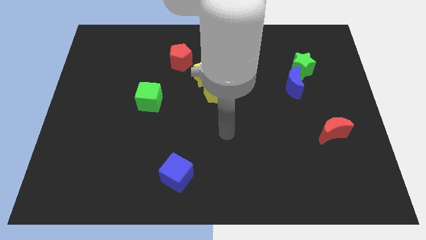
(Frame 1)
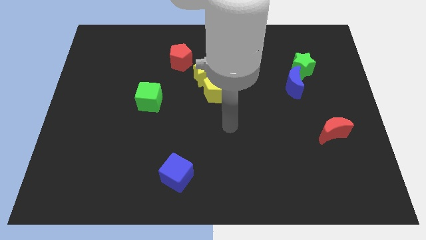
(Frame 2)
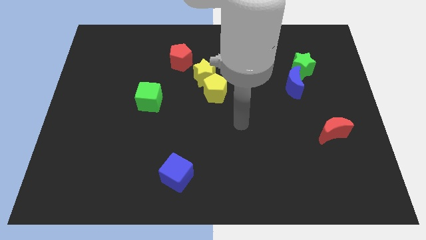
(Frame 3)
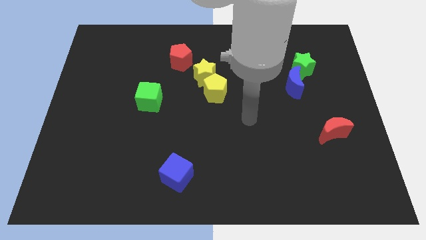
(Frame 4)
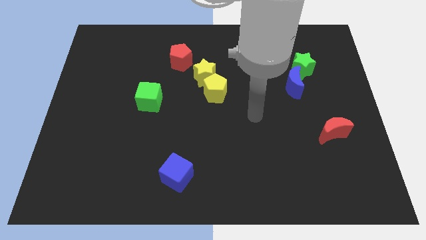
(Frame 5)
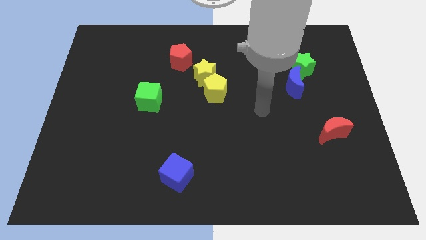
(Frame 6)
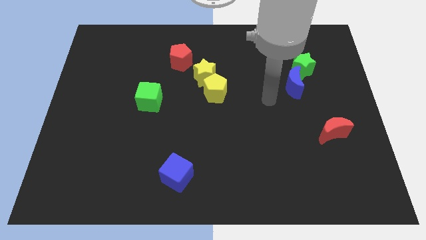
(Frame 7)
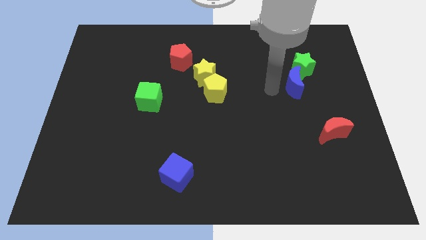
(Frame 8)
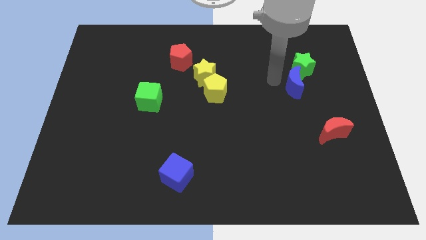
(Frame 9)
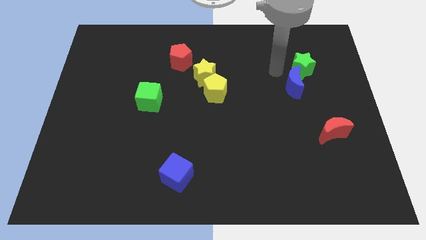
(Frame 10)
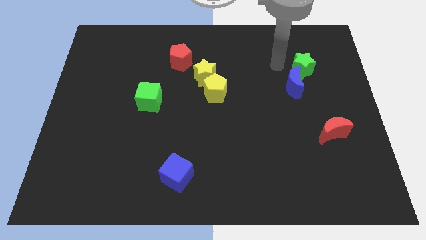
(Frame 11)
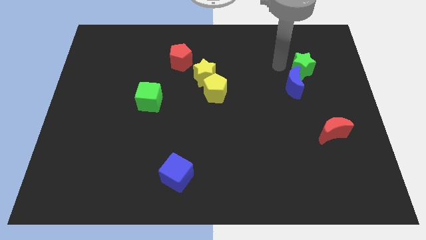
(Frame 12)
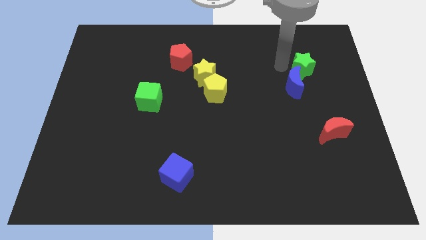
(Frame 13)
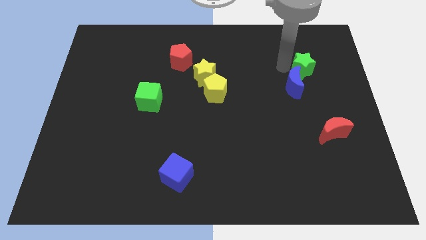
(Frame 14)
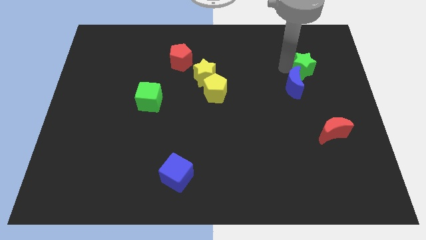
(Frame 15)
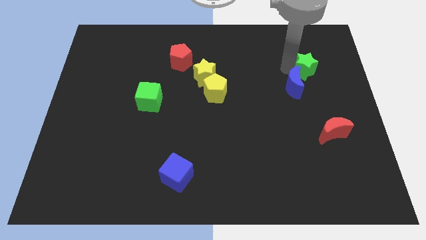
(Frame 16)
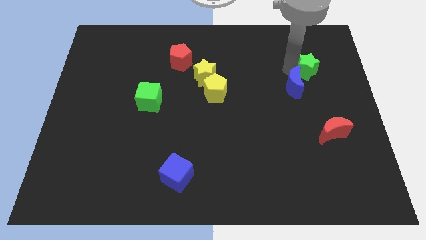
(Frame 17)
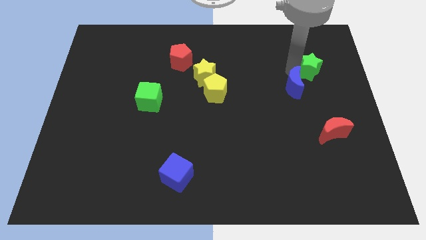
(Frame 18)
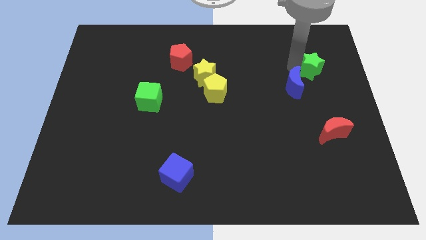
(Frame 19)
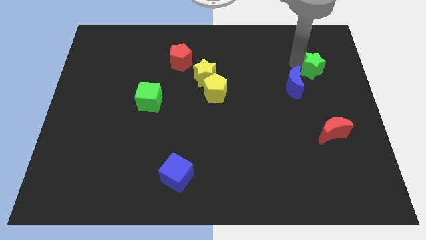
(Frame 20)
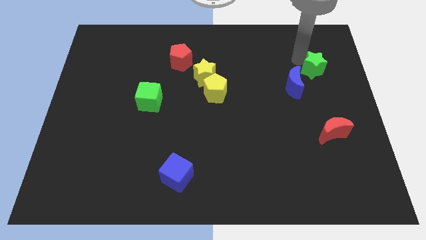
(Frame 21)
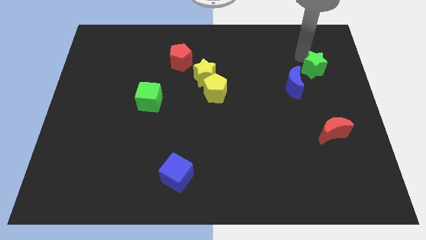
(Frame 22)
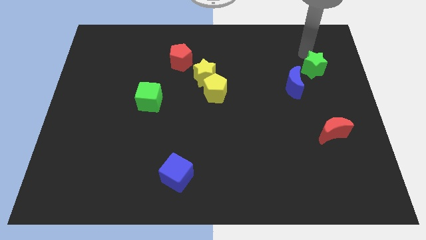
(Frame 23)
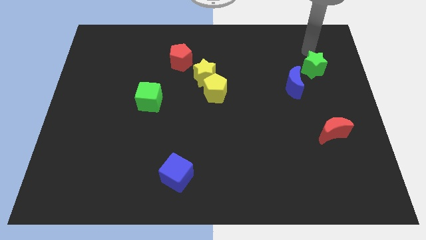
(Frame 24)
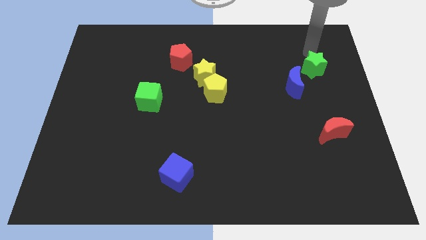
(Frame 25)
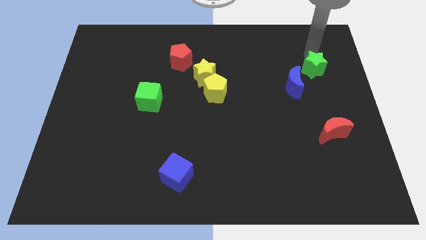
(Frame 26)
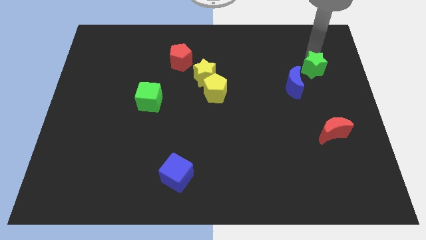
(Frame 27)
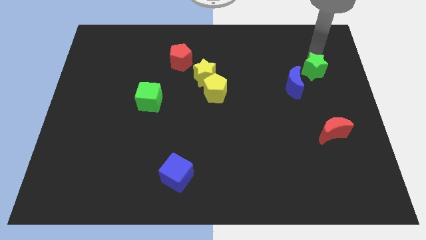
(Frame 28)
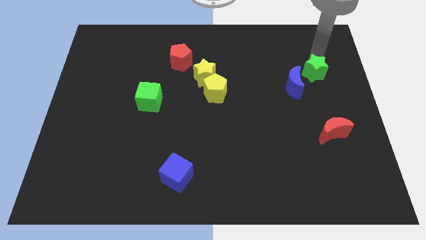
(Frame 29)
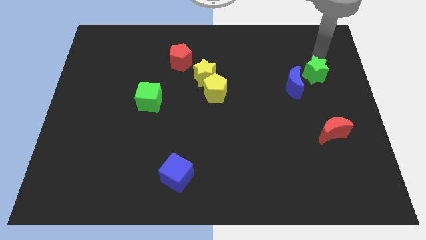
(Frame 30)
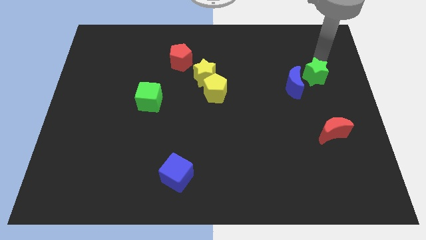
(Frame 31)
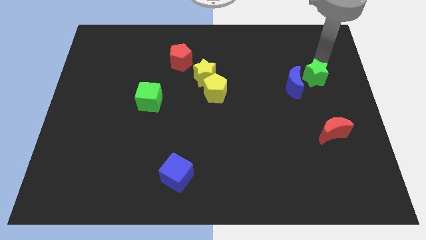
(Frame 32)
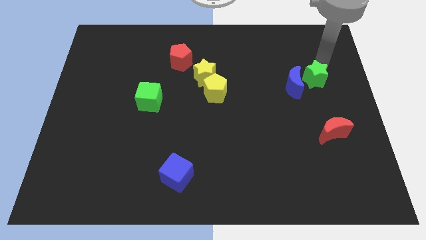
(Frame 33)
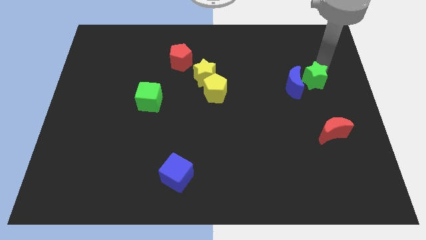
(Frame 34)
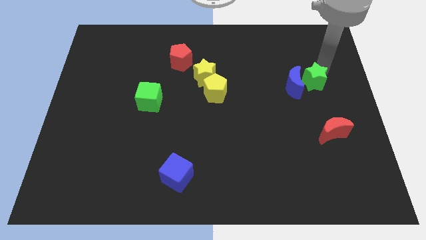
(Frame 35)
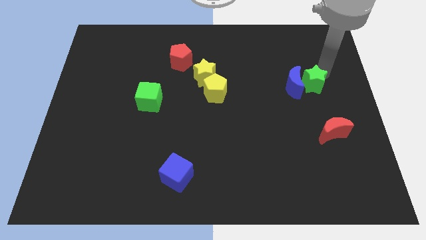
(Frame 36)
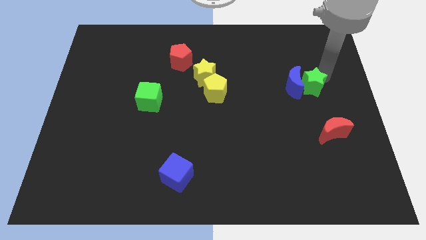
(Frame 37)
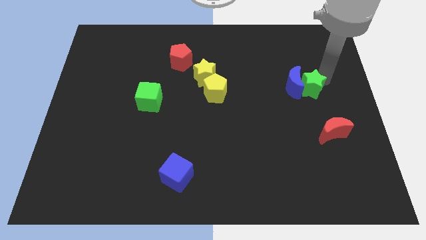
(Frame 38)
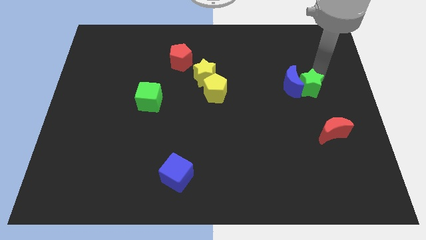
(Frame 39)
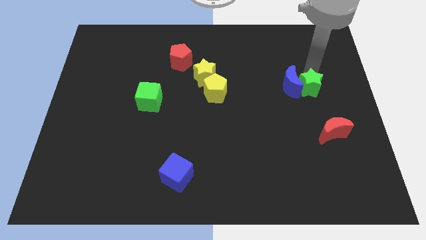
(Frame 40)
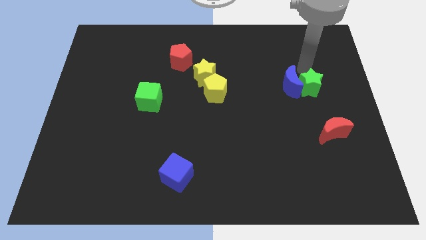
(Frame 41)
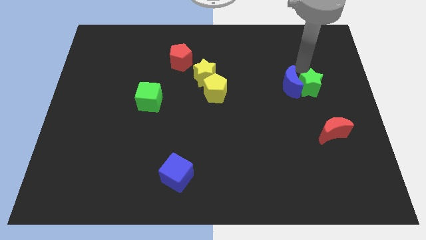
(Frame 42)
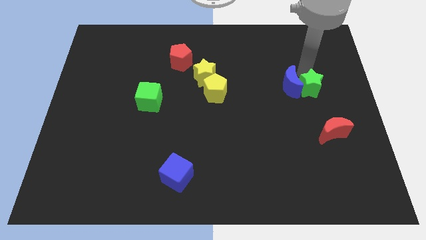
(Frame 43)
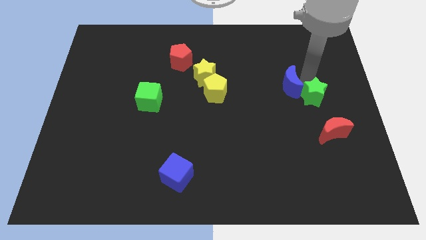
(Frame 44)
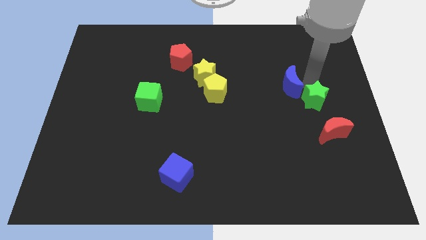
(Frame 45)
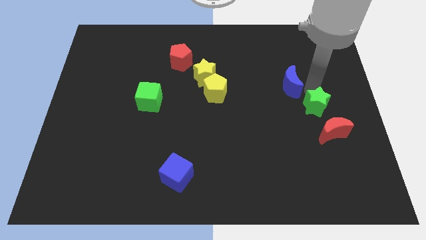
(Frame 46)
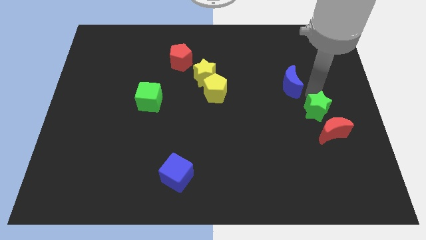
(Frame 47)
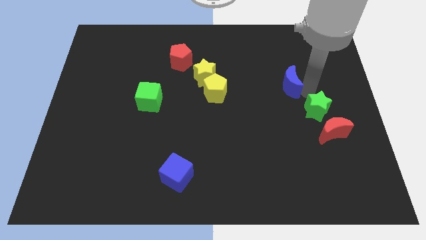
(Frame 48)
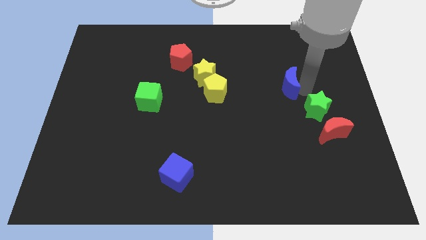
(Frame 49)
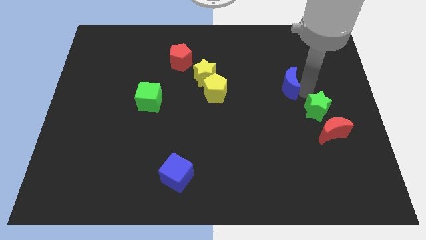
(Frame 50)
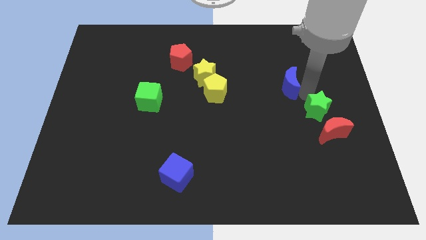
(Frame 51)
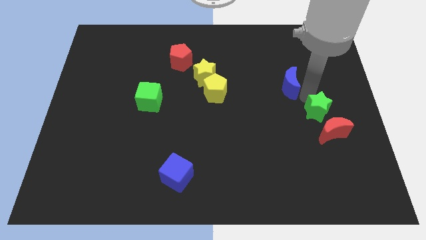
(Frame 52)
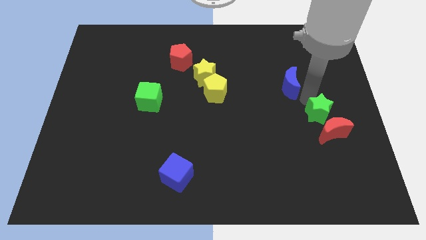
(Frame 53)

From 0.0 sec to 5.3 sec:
put the green star to the red moon

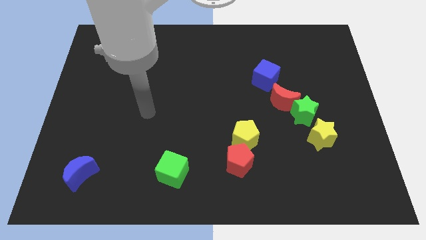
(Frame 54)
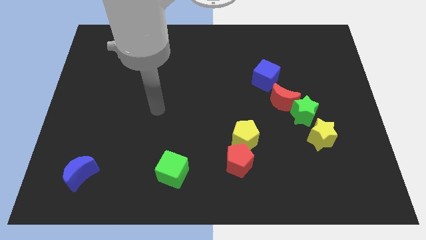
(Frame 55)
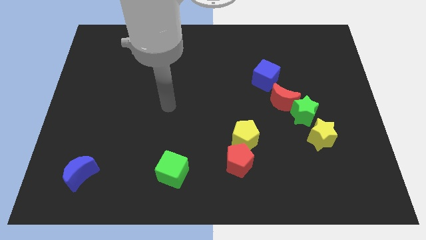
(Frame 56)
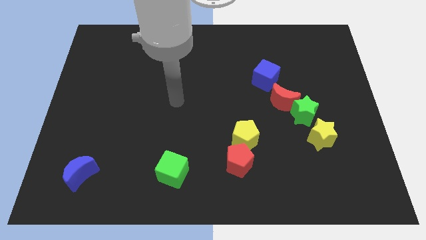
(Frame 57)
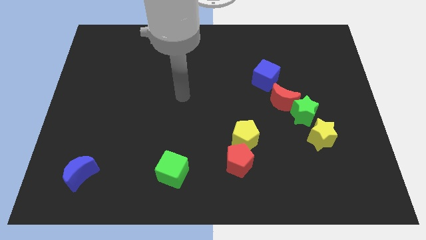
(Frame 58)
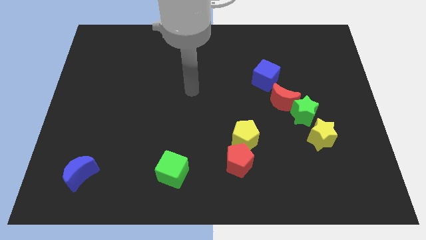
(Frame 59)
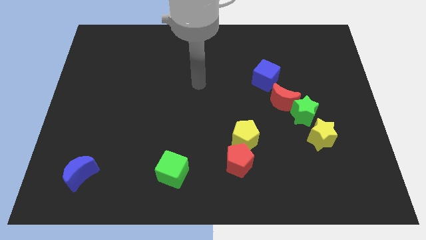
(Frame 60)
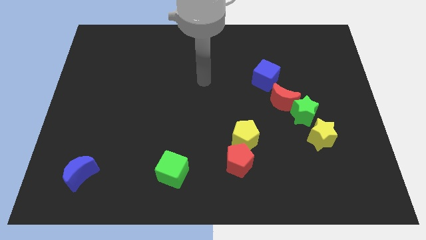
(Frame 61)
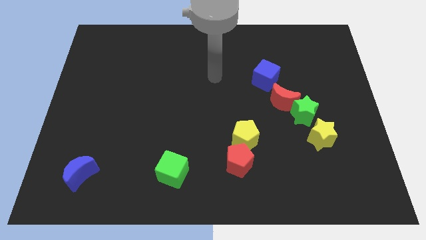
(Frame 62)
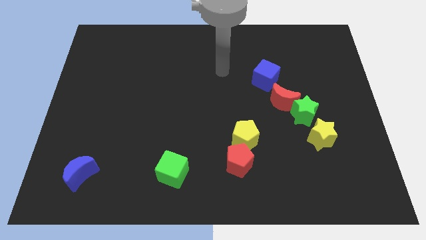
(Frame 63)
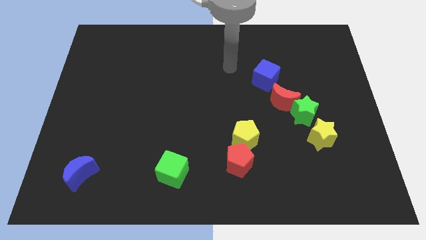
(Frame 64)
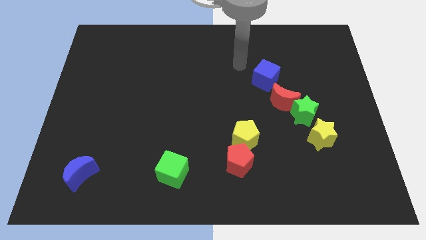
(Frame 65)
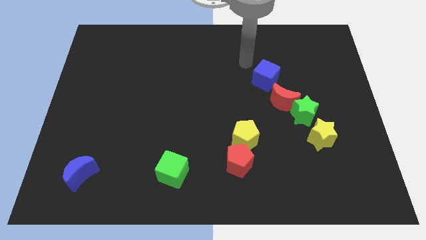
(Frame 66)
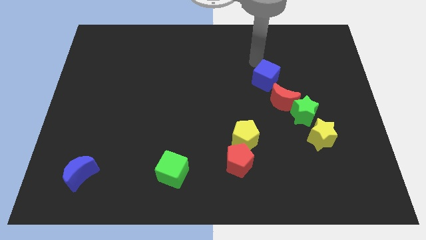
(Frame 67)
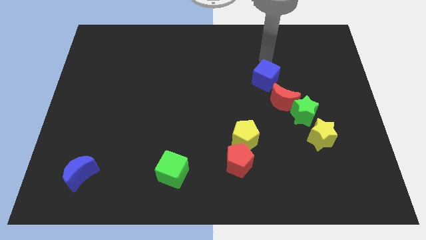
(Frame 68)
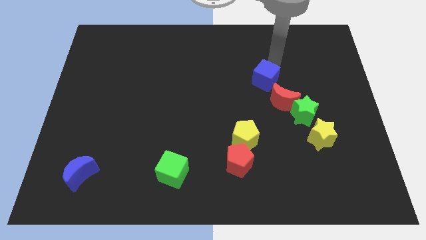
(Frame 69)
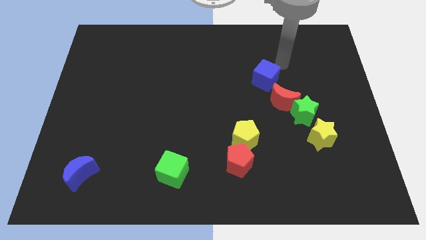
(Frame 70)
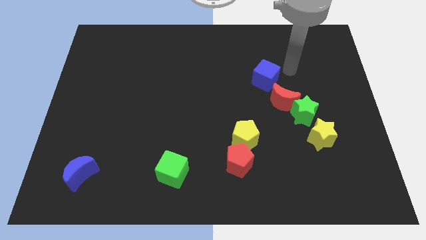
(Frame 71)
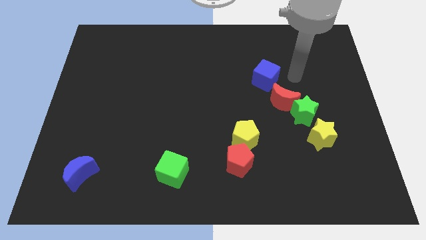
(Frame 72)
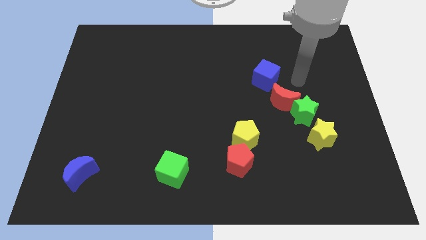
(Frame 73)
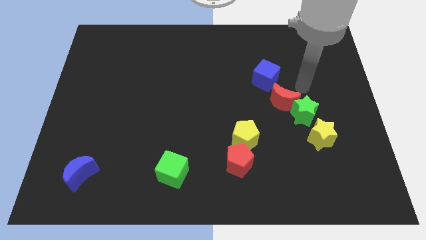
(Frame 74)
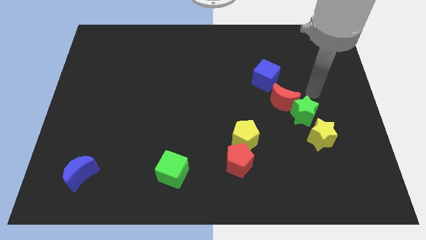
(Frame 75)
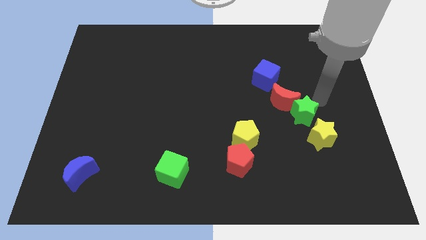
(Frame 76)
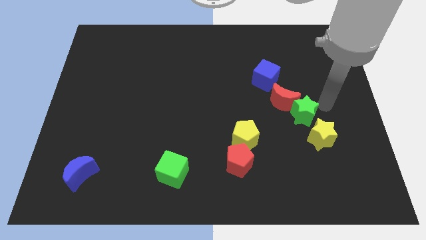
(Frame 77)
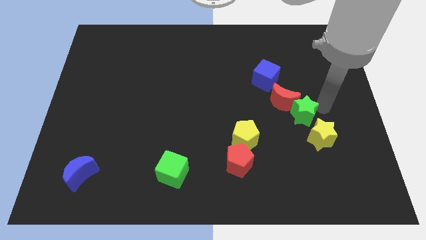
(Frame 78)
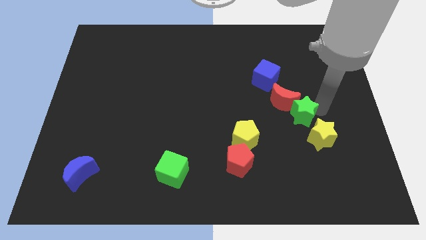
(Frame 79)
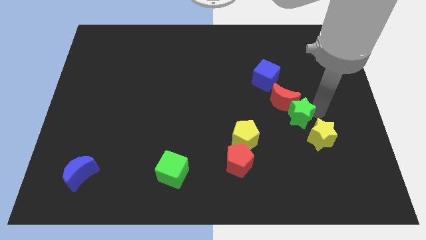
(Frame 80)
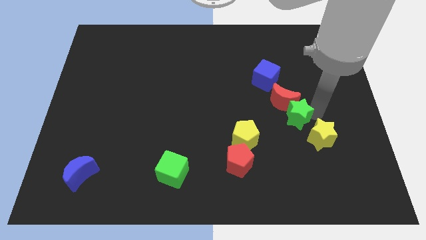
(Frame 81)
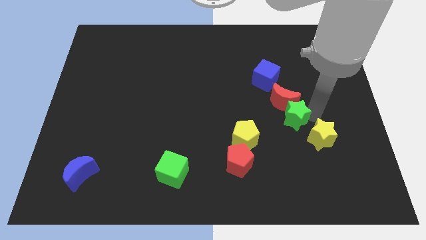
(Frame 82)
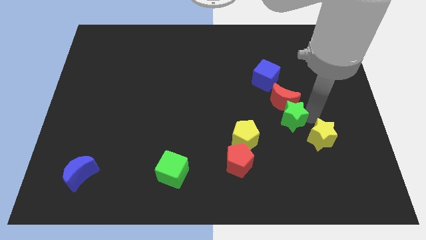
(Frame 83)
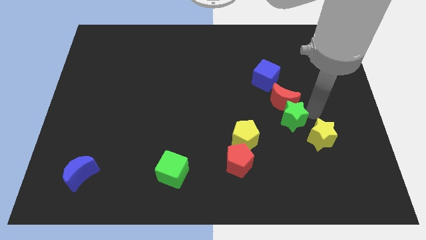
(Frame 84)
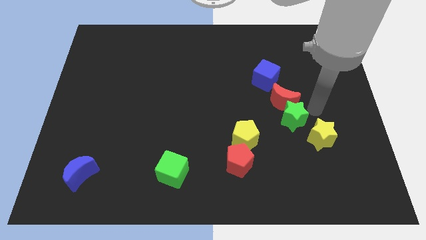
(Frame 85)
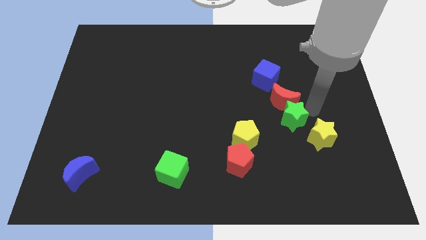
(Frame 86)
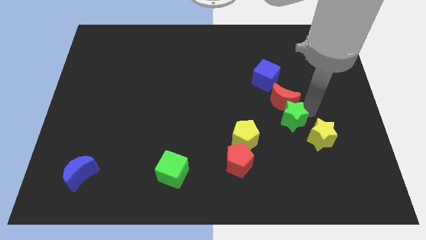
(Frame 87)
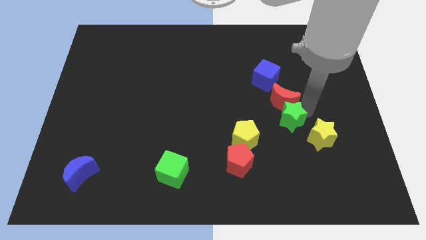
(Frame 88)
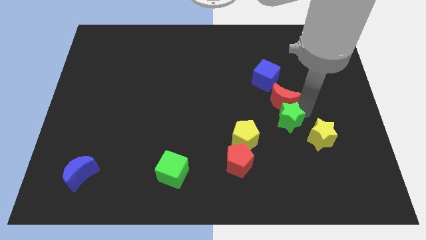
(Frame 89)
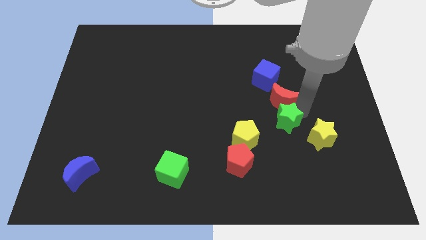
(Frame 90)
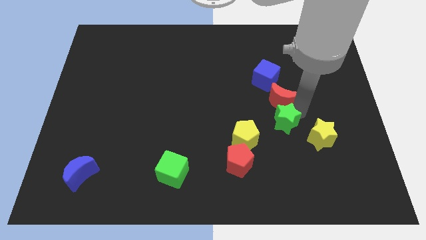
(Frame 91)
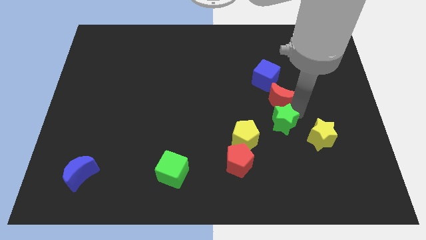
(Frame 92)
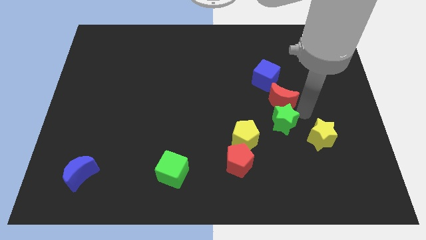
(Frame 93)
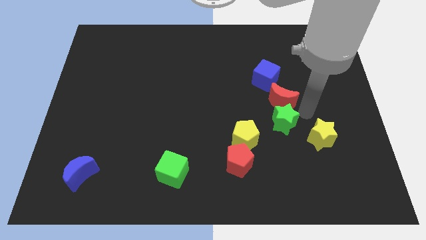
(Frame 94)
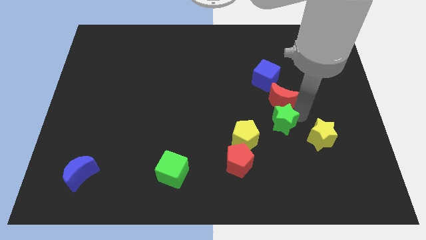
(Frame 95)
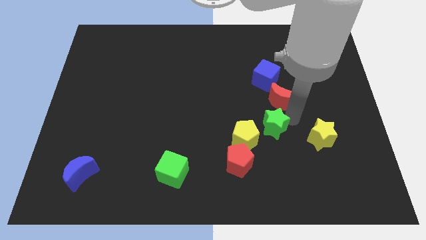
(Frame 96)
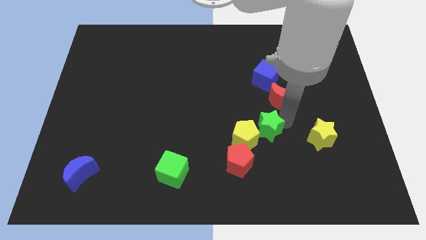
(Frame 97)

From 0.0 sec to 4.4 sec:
slide the green star to the yellow pentagon
